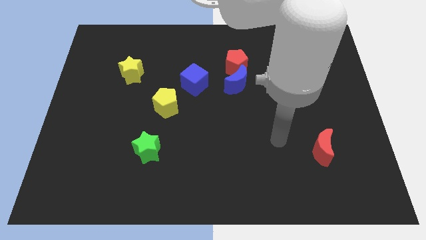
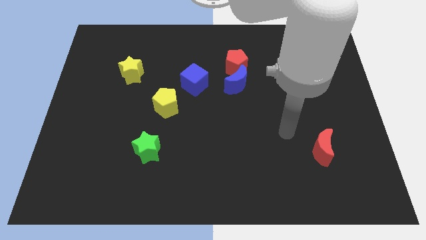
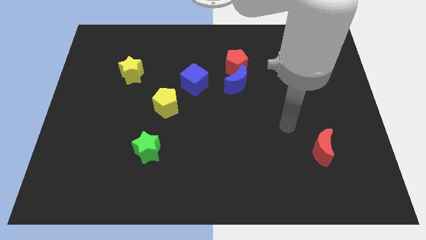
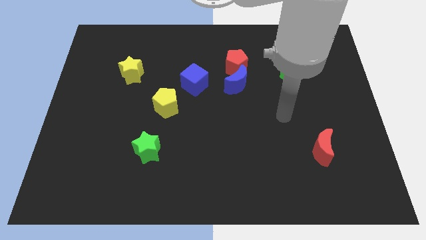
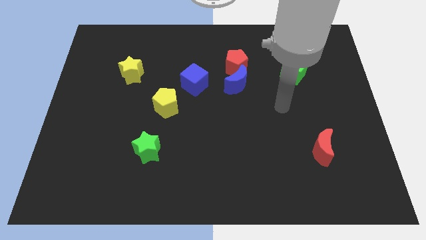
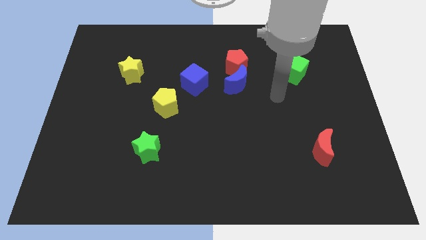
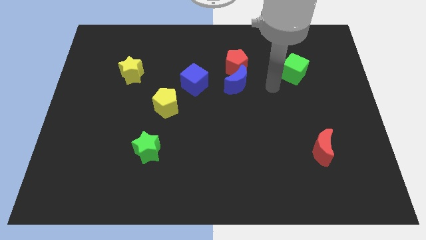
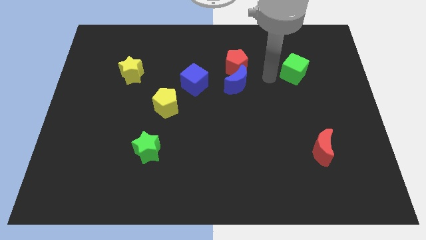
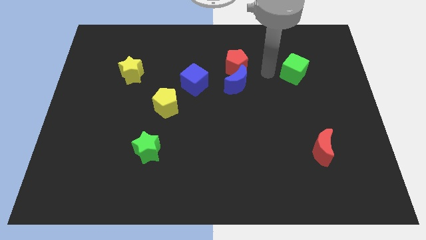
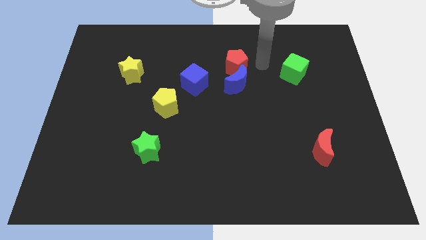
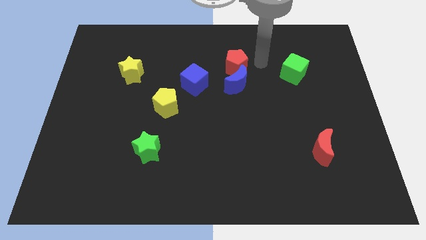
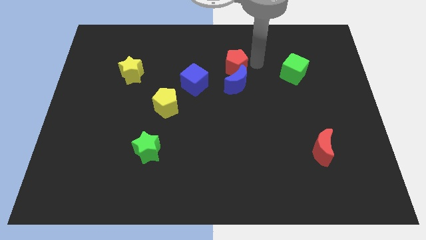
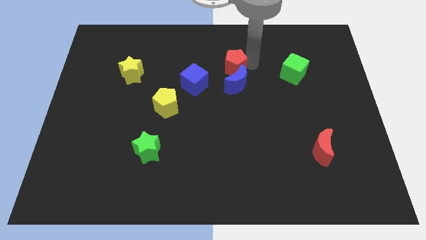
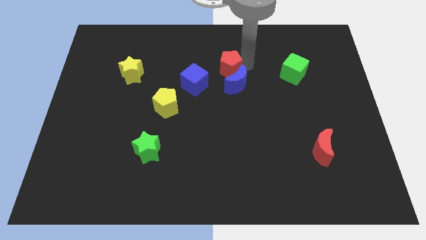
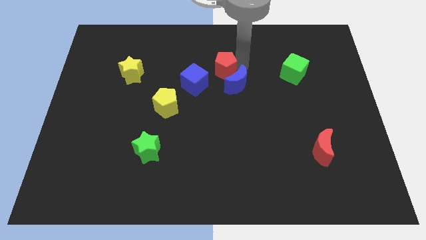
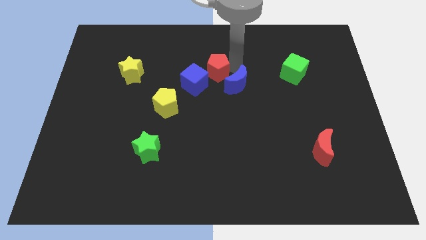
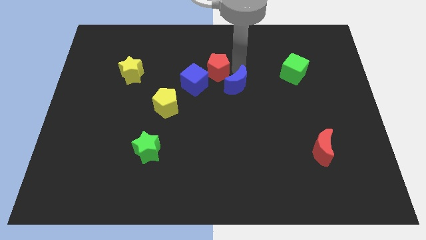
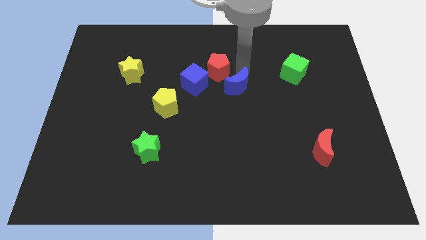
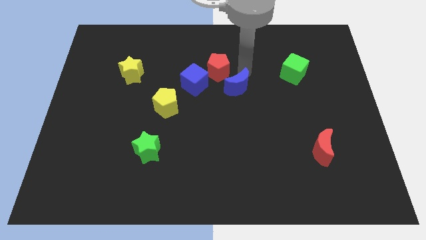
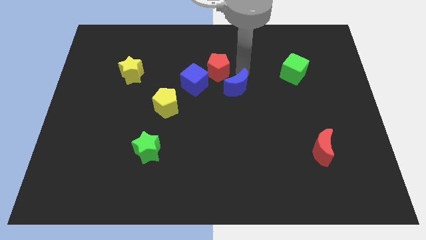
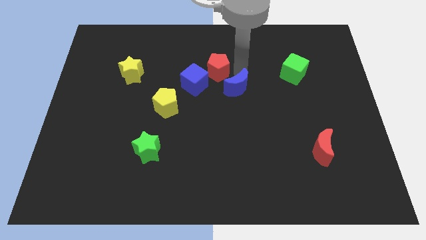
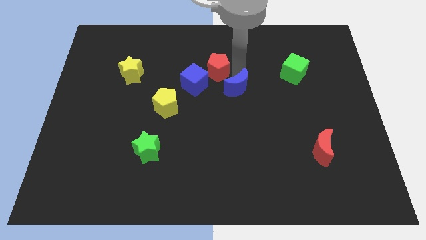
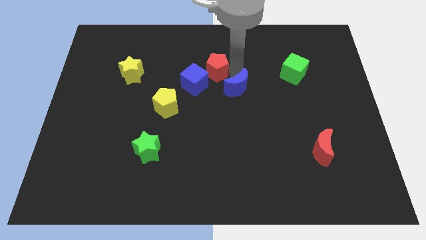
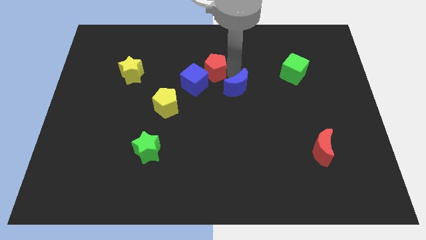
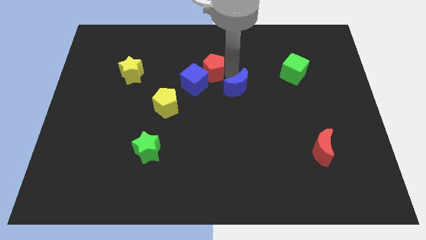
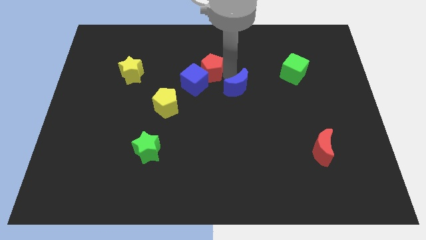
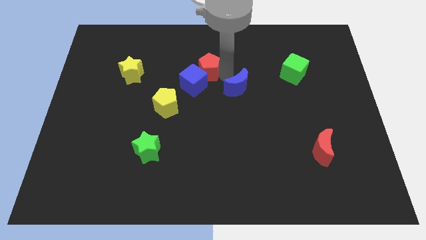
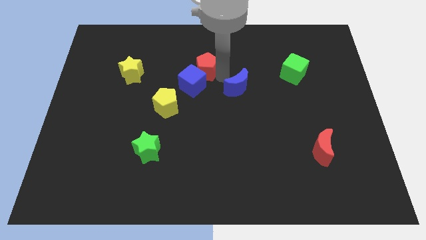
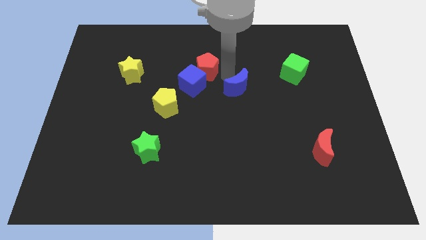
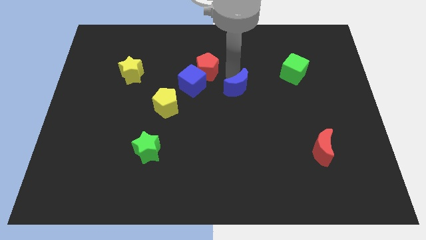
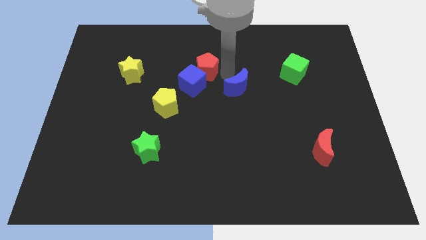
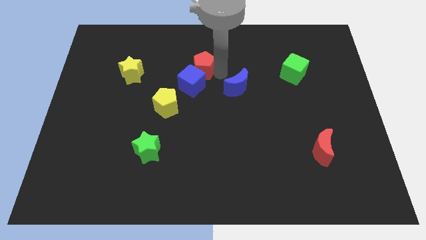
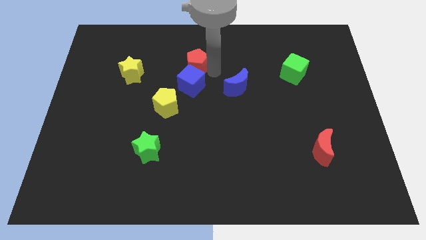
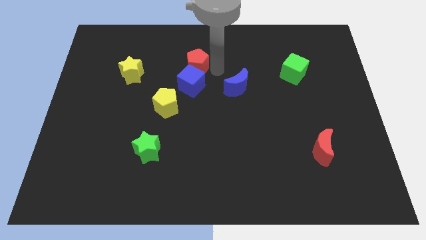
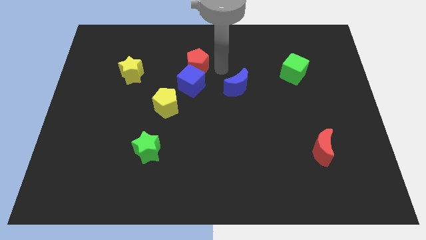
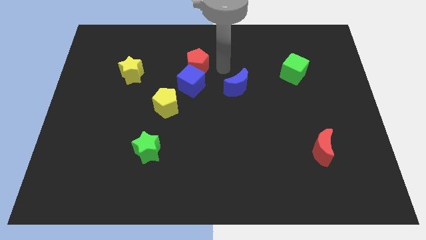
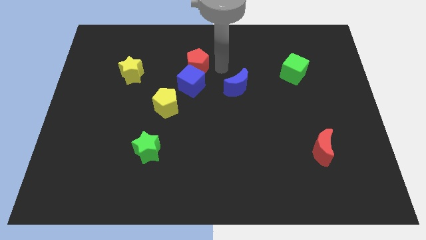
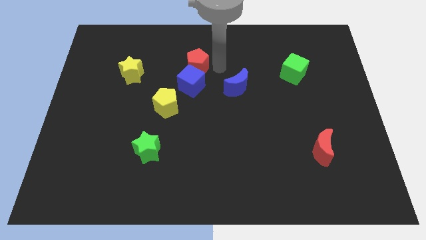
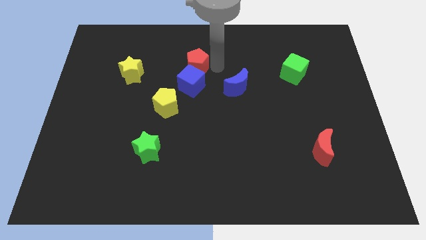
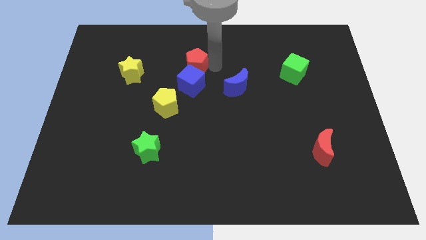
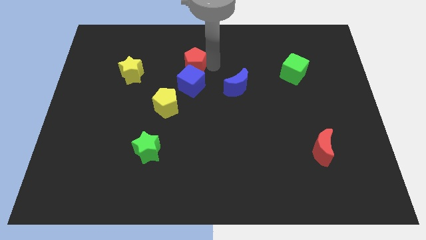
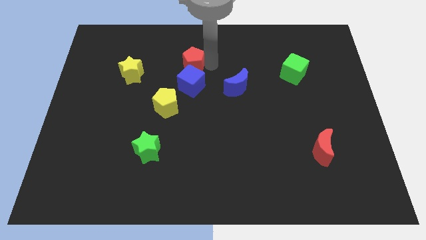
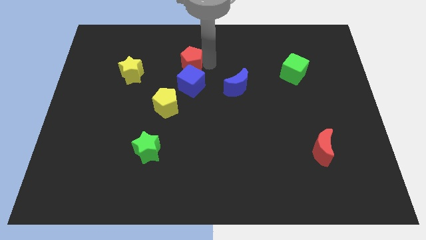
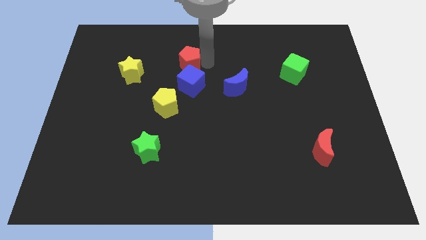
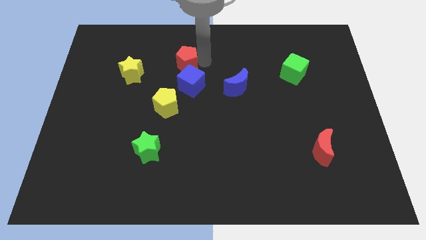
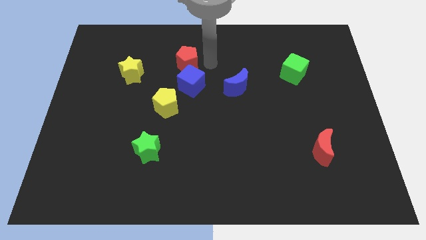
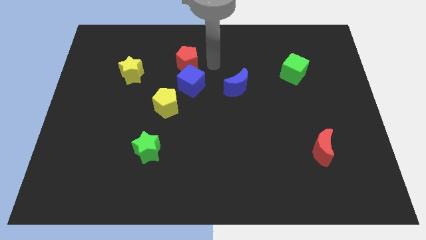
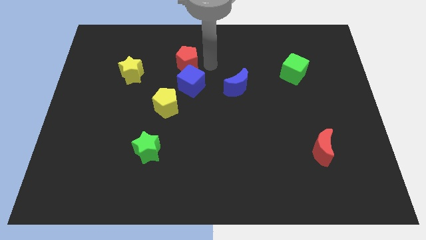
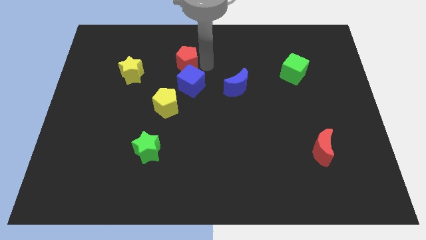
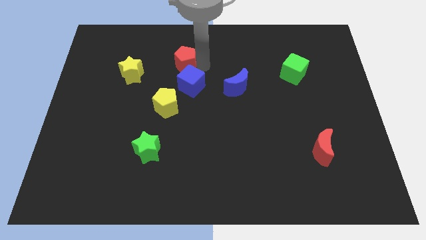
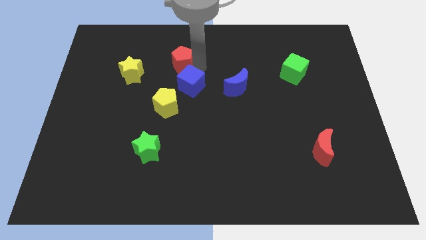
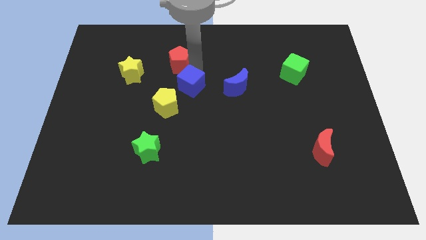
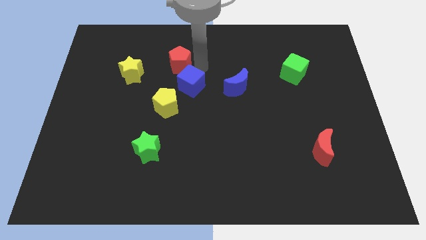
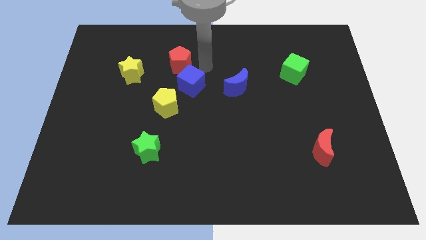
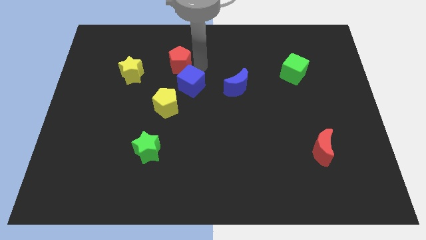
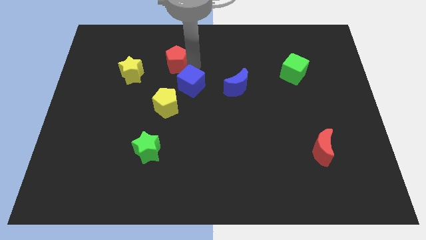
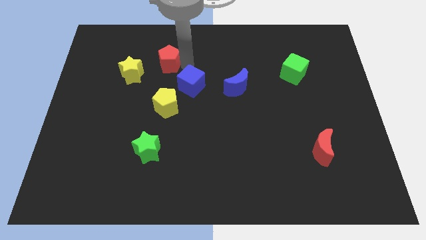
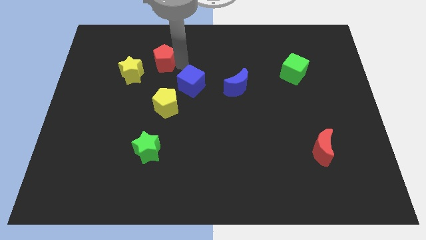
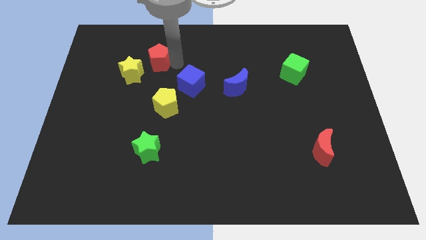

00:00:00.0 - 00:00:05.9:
push the red pentagon to the left

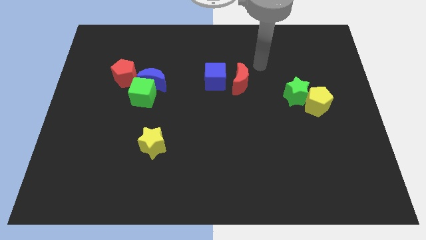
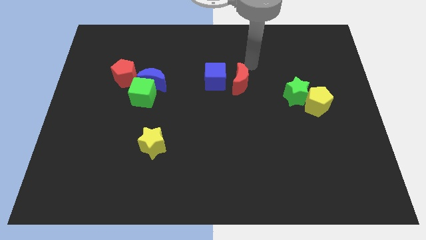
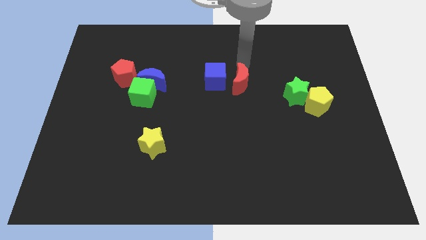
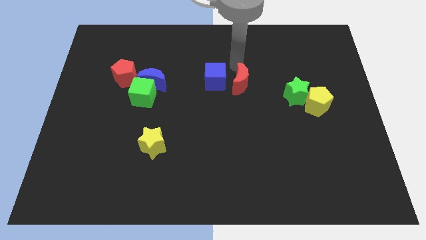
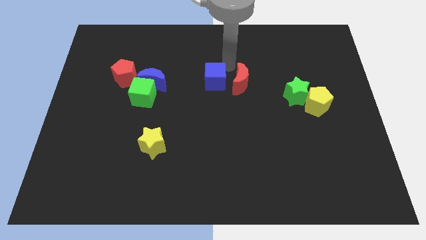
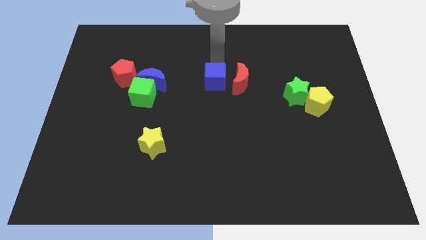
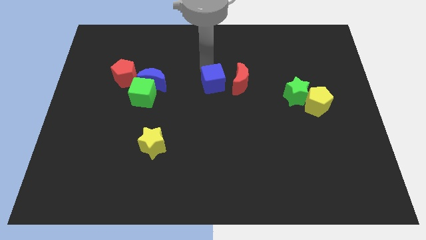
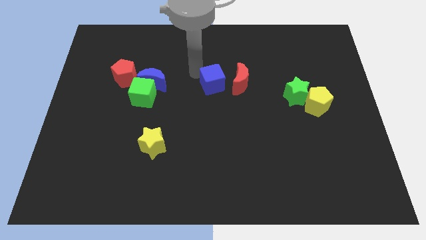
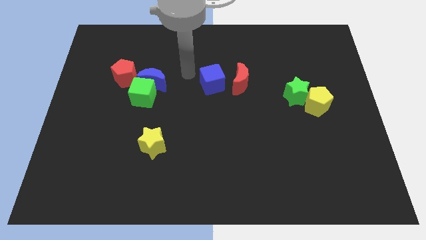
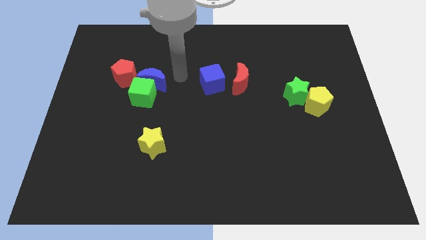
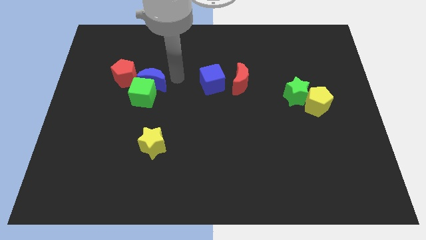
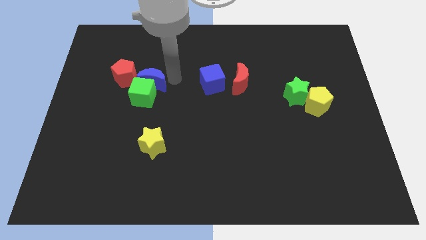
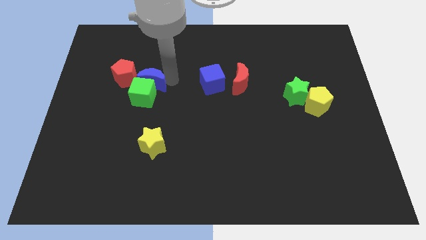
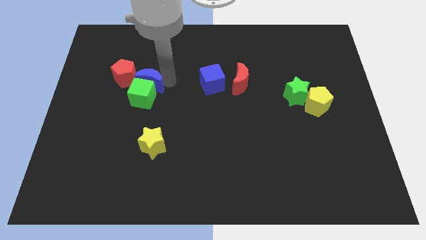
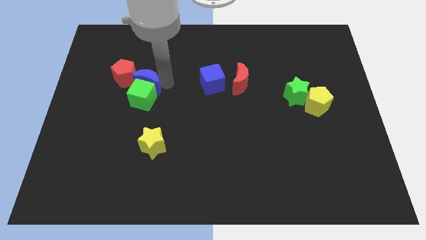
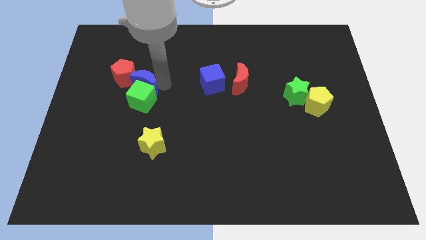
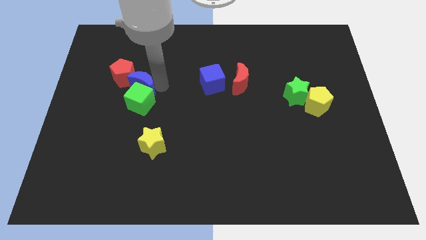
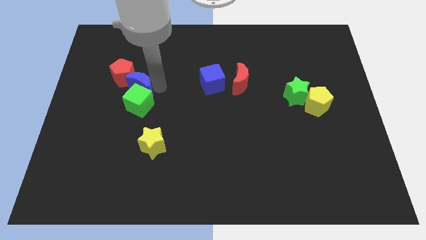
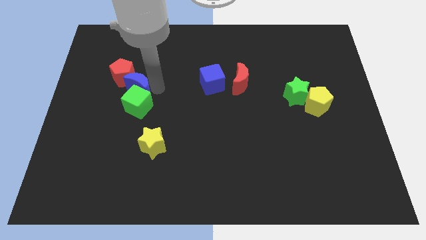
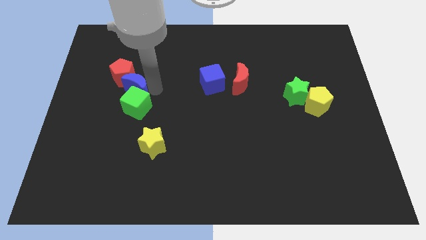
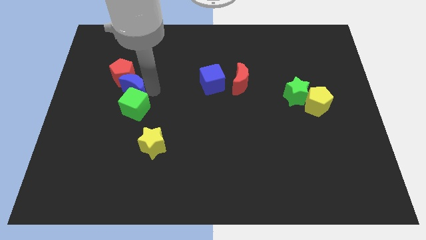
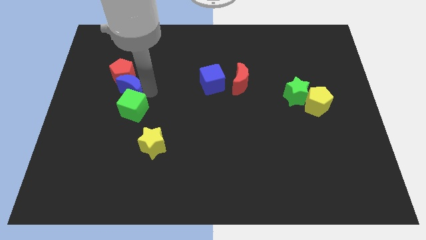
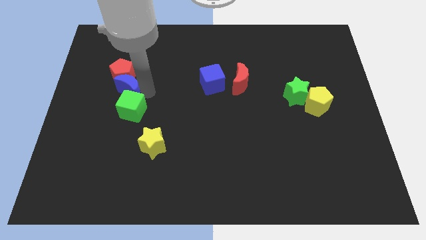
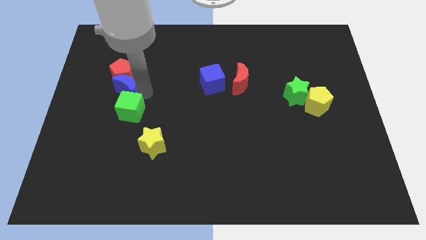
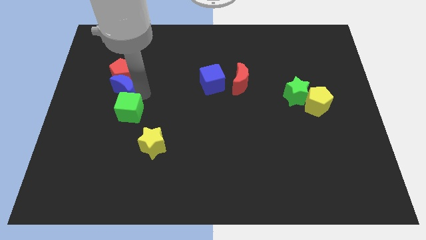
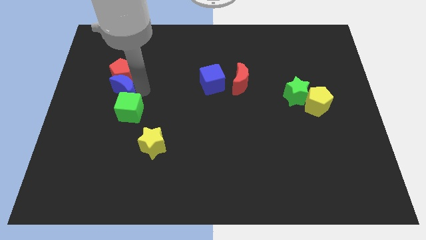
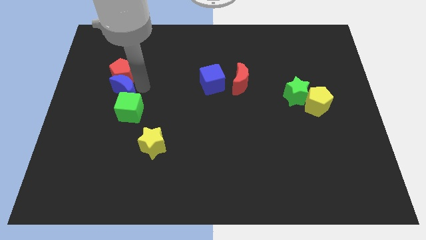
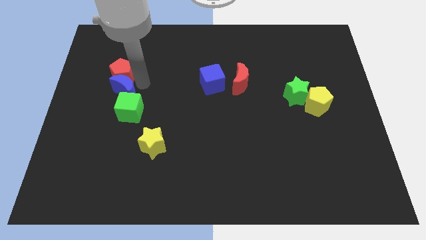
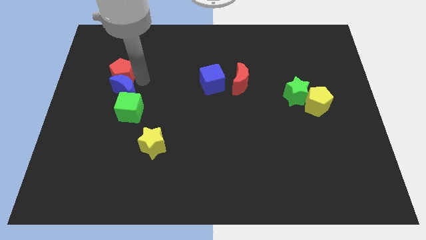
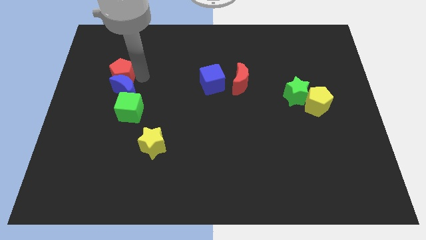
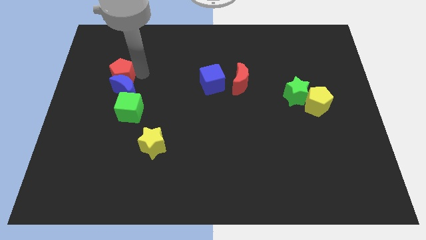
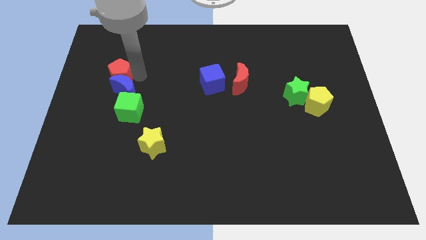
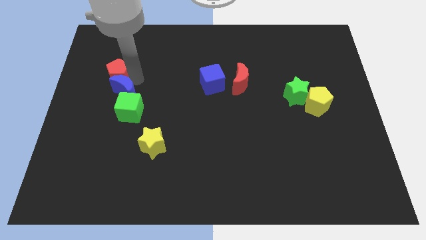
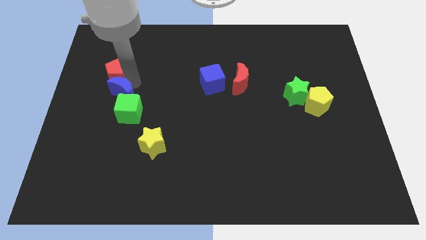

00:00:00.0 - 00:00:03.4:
move the blue moon down and then to the left a bit
